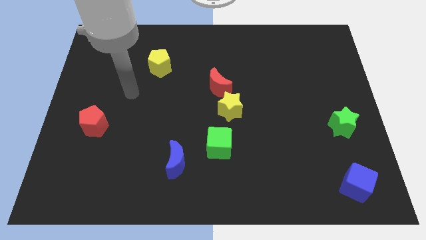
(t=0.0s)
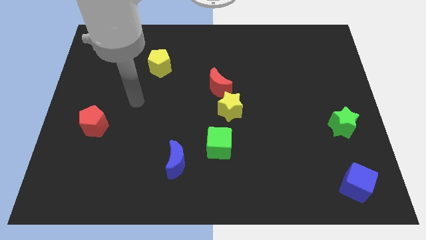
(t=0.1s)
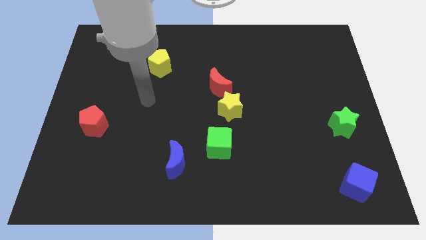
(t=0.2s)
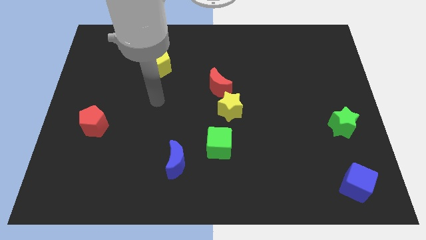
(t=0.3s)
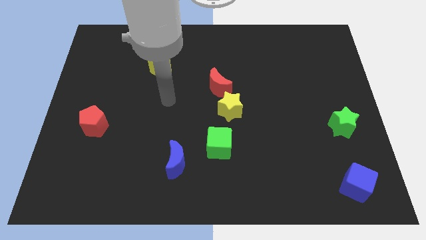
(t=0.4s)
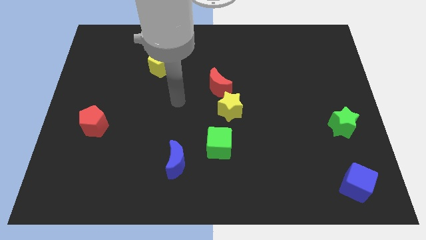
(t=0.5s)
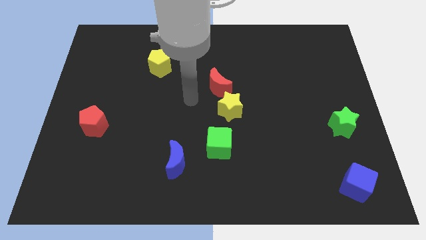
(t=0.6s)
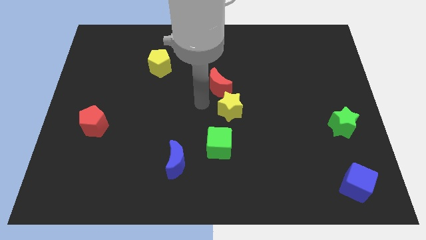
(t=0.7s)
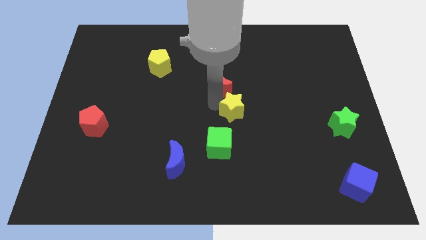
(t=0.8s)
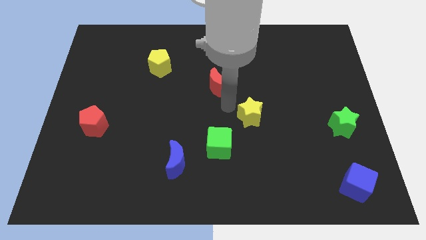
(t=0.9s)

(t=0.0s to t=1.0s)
separate the red moon from the yellow star

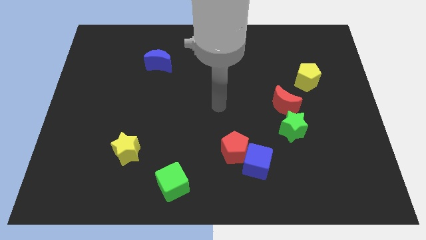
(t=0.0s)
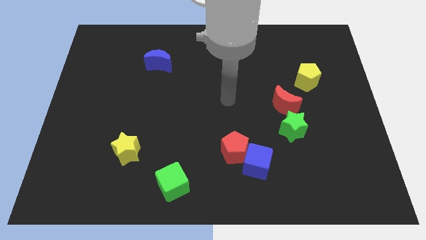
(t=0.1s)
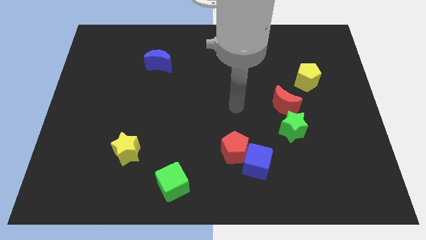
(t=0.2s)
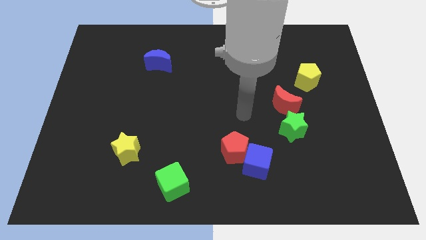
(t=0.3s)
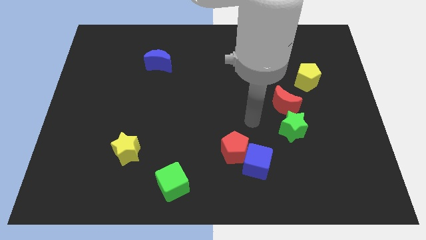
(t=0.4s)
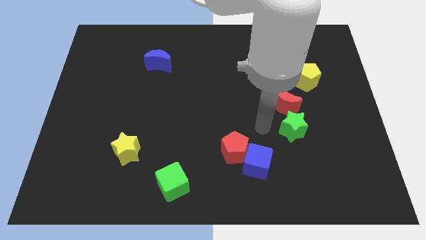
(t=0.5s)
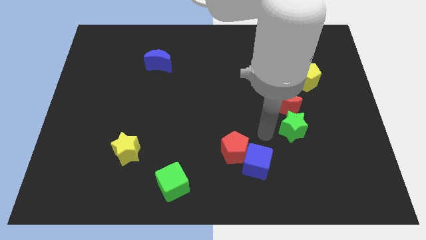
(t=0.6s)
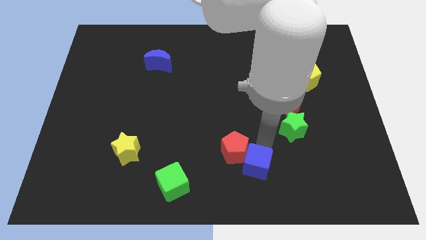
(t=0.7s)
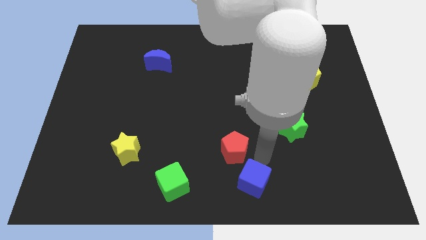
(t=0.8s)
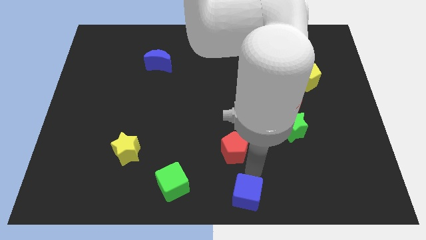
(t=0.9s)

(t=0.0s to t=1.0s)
move the red pentagon away from the blue cube

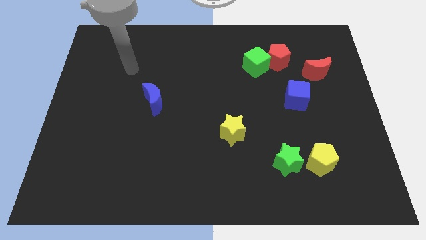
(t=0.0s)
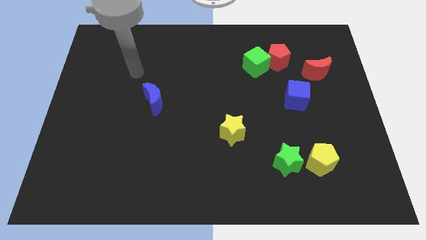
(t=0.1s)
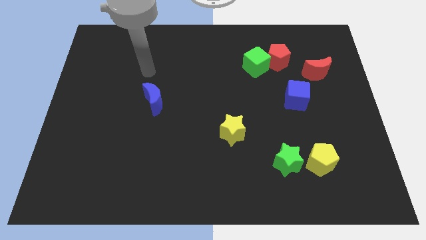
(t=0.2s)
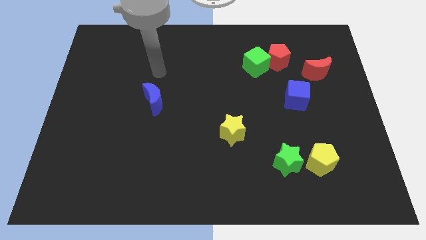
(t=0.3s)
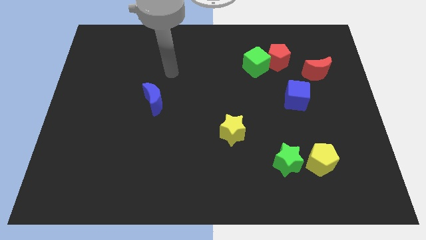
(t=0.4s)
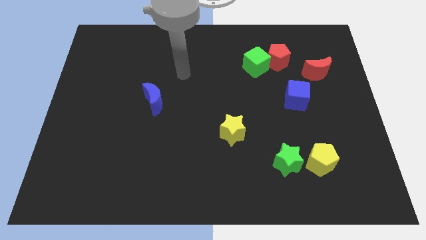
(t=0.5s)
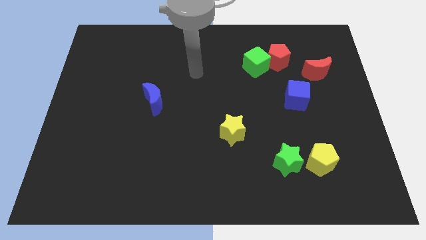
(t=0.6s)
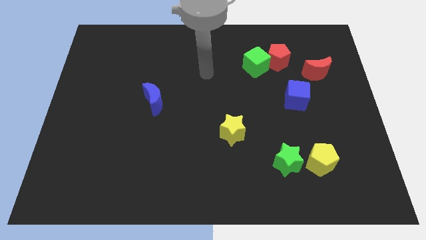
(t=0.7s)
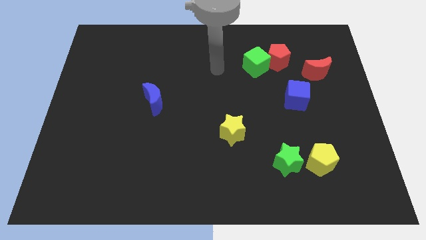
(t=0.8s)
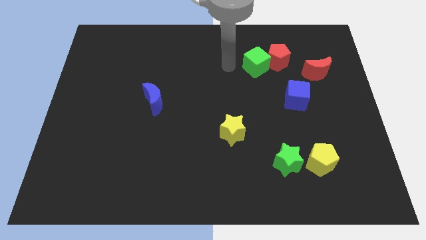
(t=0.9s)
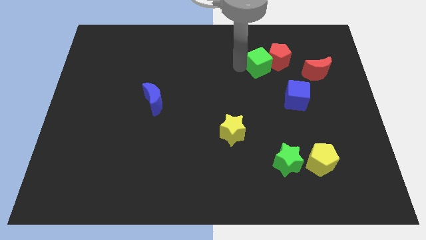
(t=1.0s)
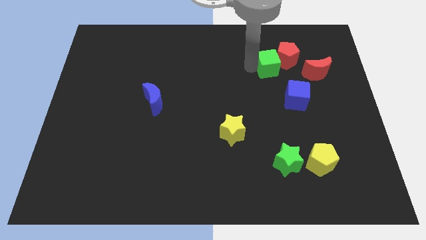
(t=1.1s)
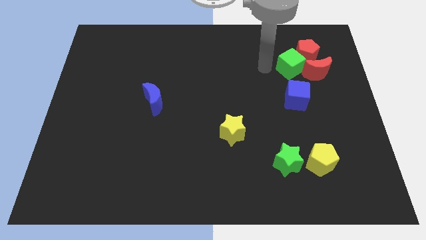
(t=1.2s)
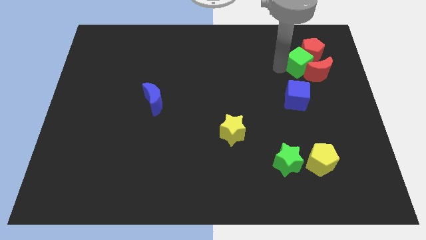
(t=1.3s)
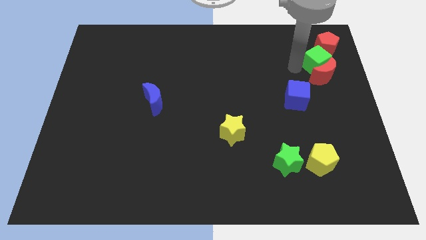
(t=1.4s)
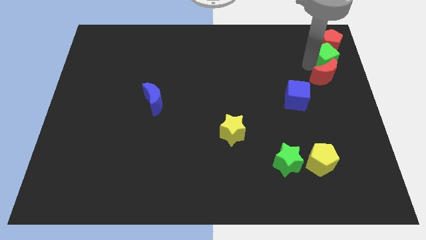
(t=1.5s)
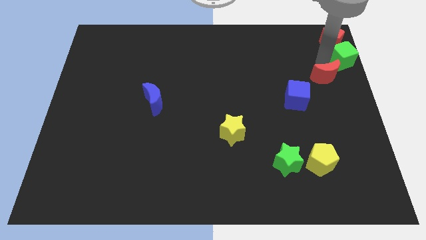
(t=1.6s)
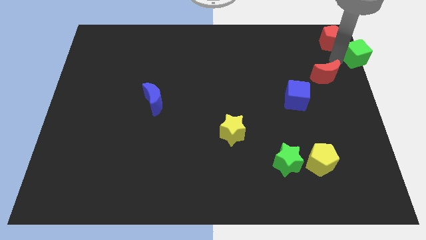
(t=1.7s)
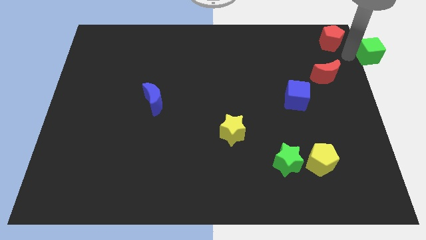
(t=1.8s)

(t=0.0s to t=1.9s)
move the red pentagon away from the green cube

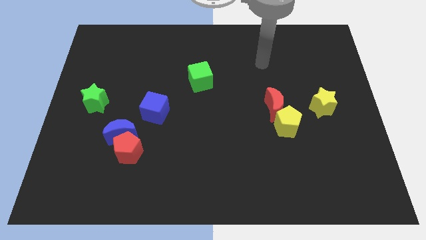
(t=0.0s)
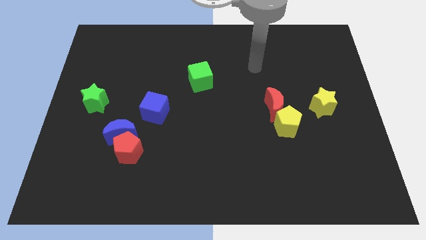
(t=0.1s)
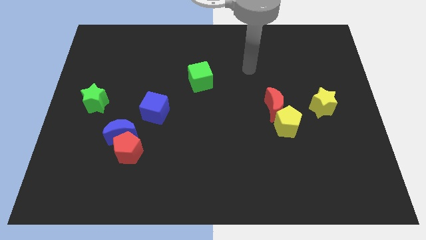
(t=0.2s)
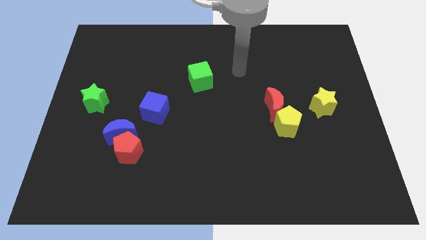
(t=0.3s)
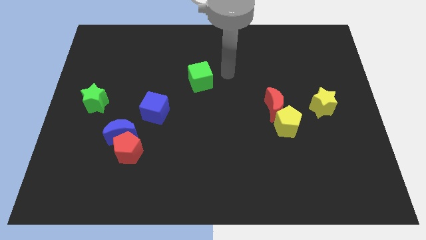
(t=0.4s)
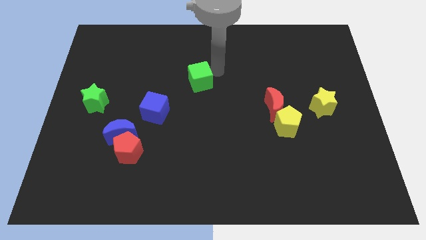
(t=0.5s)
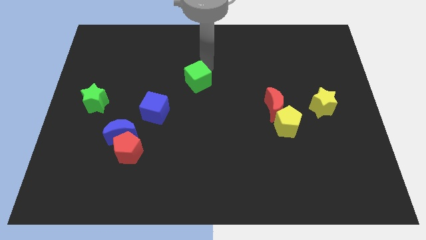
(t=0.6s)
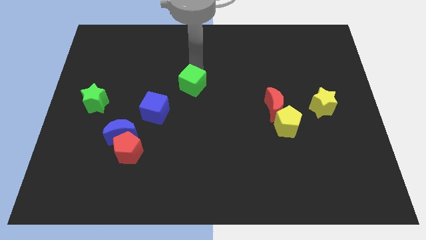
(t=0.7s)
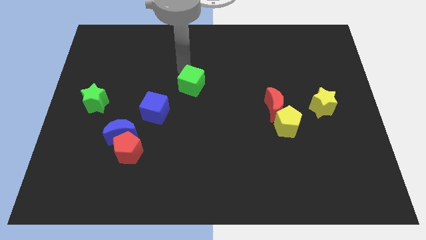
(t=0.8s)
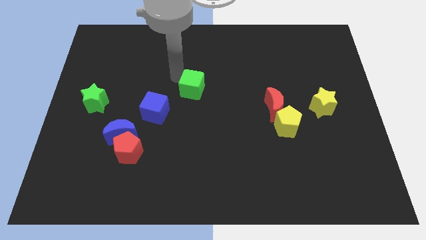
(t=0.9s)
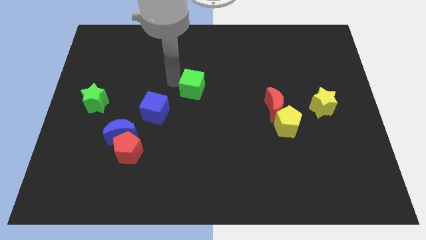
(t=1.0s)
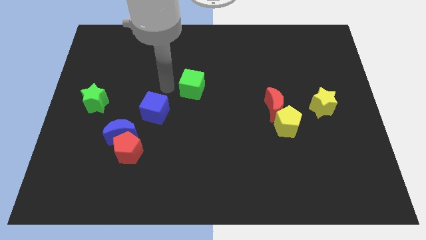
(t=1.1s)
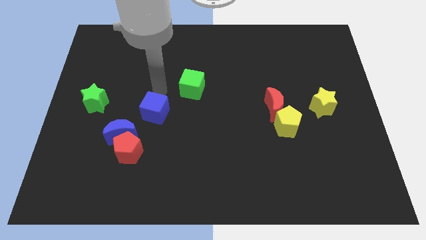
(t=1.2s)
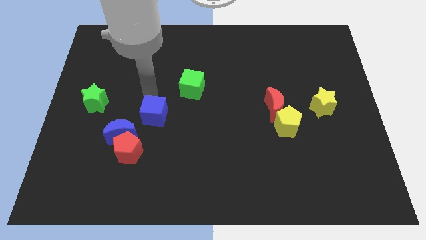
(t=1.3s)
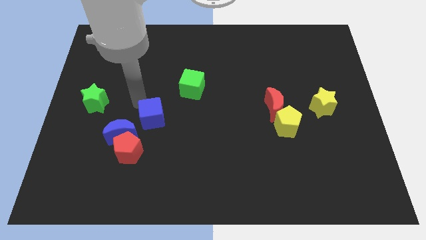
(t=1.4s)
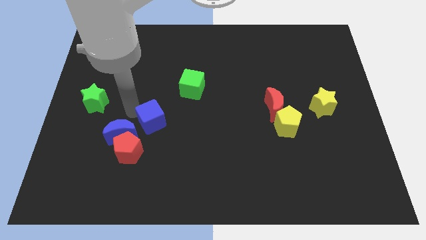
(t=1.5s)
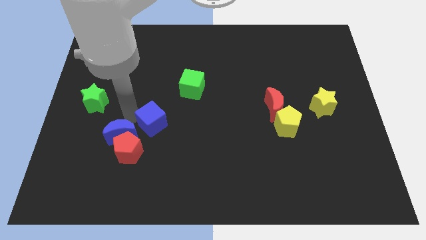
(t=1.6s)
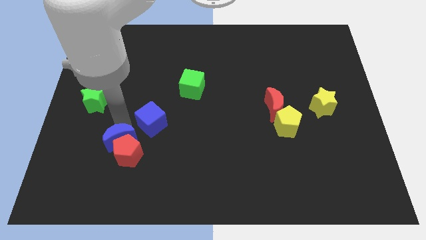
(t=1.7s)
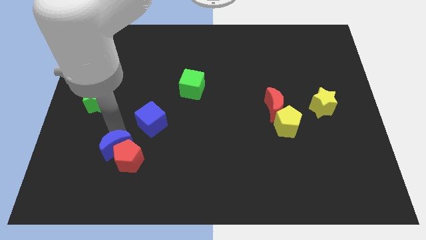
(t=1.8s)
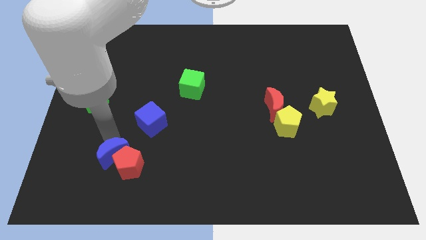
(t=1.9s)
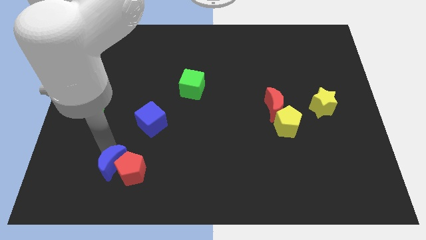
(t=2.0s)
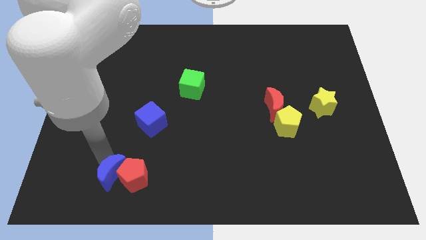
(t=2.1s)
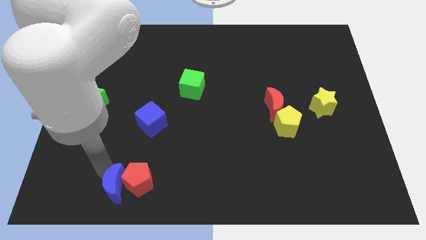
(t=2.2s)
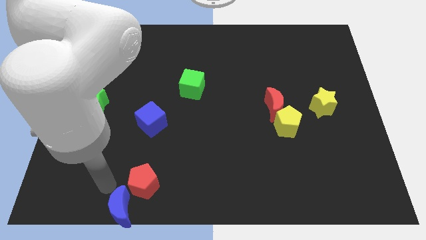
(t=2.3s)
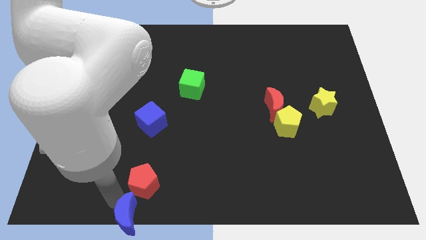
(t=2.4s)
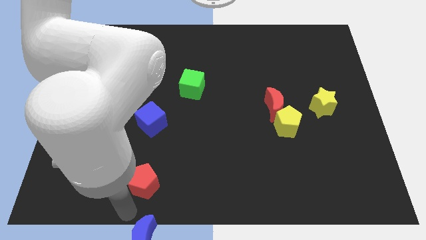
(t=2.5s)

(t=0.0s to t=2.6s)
move the red pentagon away from the blue moon

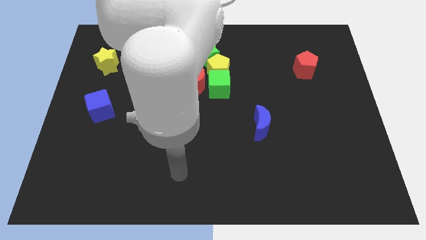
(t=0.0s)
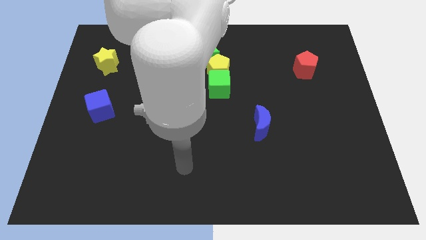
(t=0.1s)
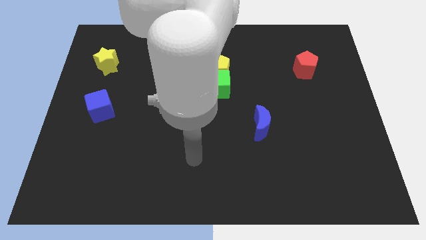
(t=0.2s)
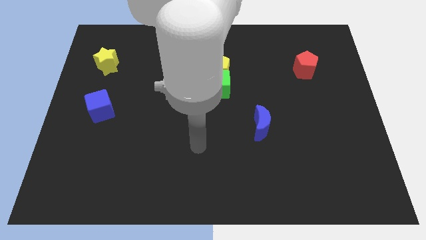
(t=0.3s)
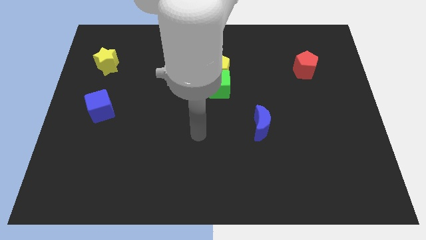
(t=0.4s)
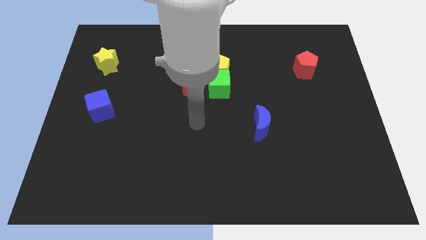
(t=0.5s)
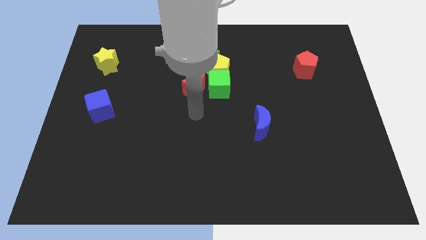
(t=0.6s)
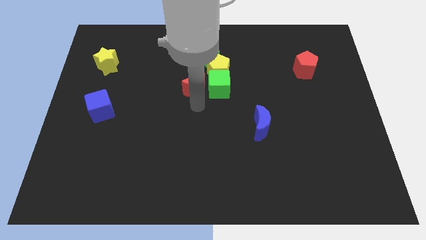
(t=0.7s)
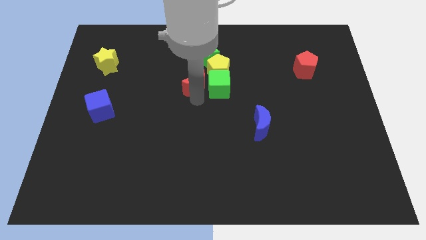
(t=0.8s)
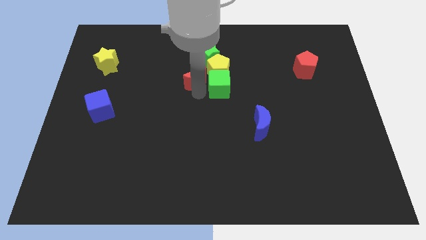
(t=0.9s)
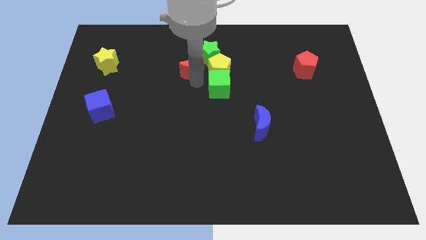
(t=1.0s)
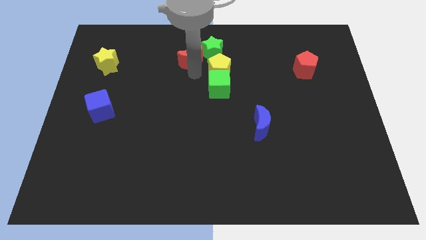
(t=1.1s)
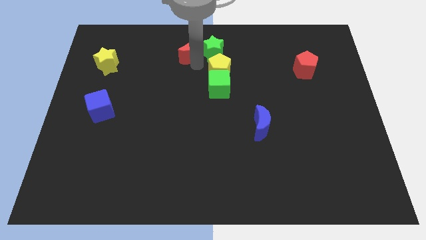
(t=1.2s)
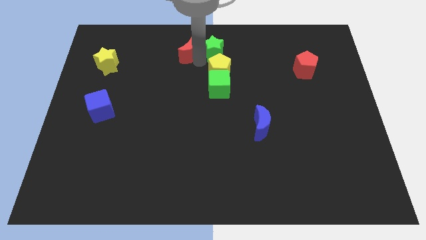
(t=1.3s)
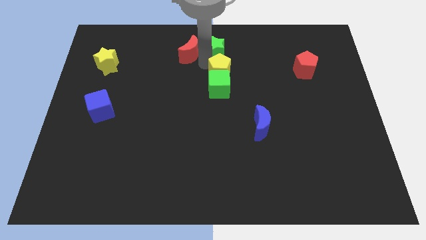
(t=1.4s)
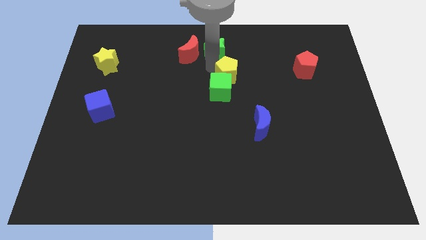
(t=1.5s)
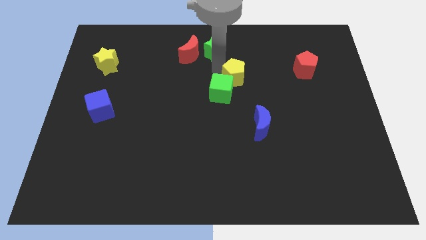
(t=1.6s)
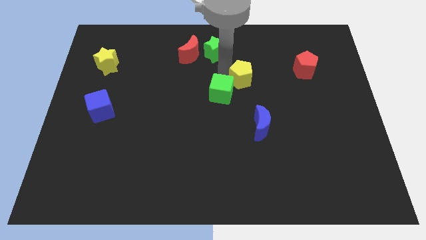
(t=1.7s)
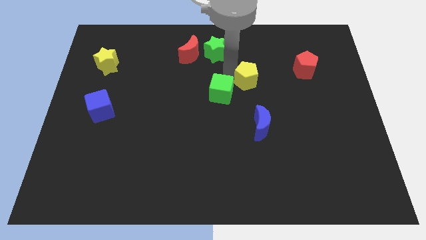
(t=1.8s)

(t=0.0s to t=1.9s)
separate the yellow pentagon from the green star, green cube, and red moon

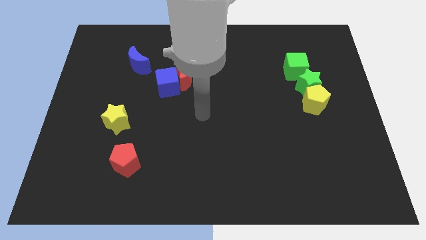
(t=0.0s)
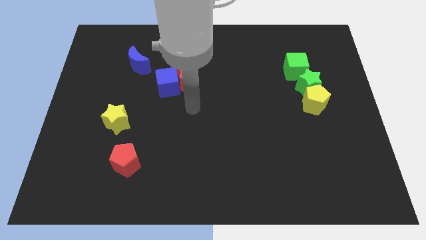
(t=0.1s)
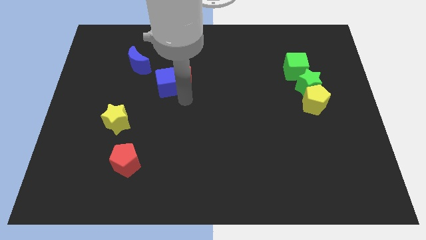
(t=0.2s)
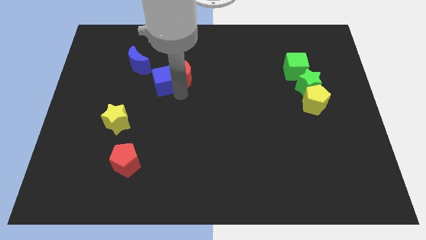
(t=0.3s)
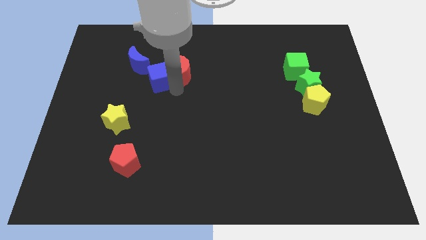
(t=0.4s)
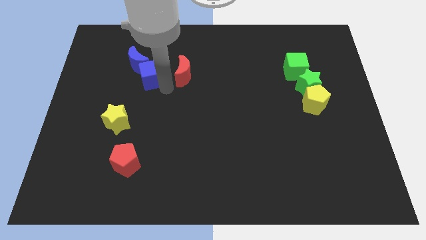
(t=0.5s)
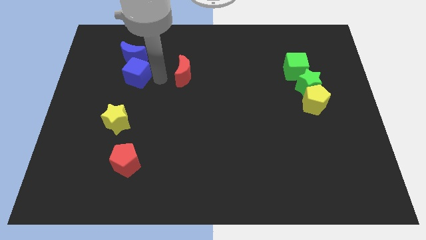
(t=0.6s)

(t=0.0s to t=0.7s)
separate the red moon from the blue cube

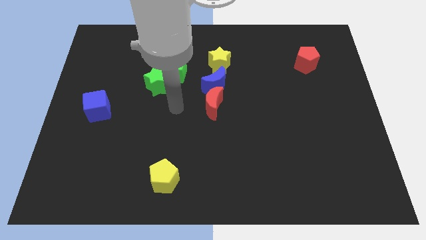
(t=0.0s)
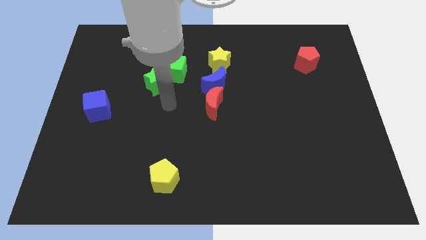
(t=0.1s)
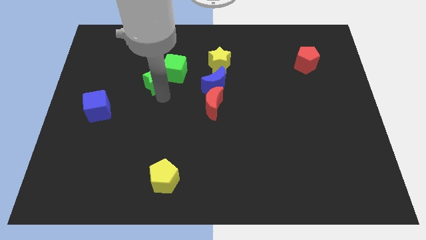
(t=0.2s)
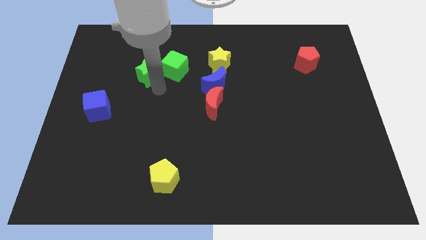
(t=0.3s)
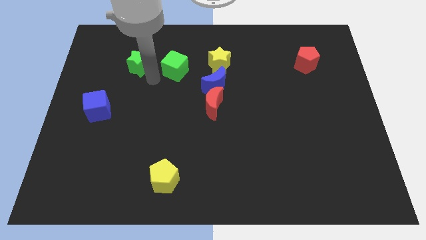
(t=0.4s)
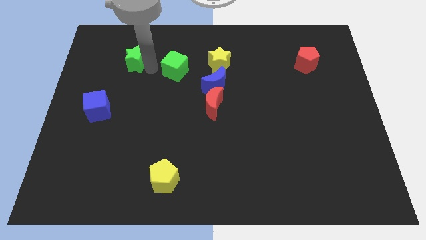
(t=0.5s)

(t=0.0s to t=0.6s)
separate the green cube from the green star
